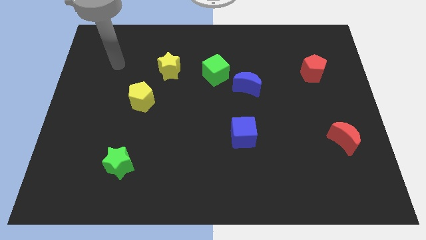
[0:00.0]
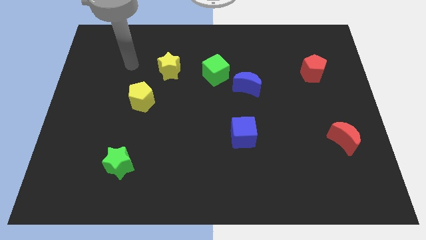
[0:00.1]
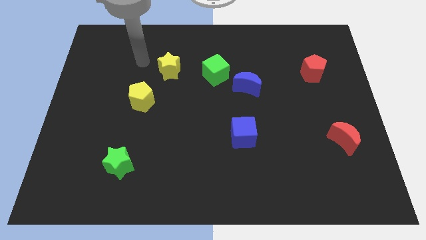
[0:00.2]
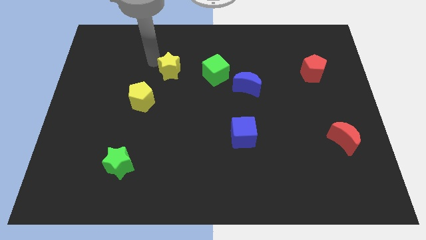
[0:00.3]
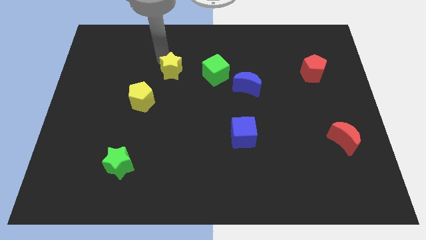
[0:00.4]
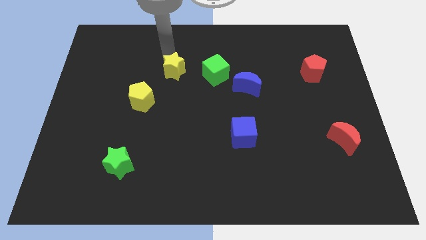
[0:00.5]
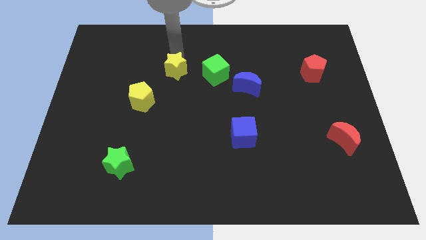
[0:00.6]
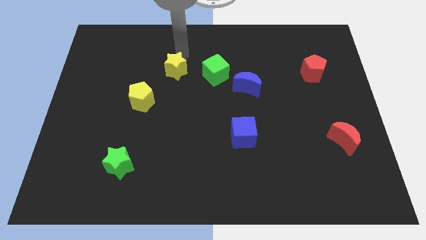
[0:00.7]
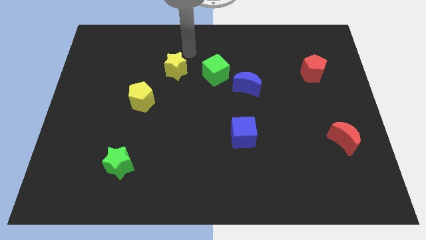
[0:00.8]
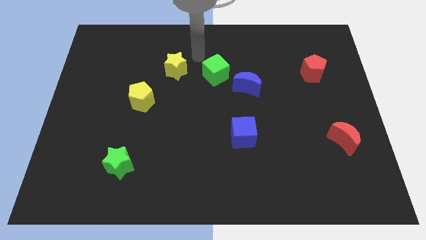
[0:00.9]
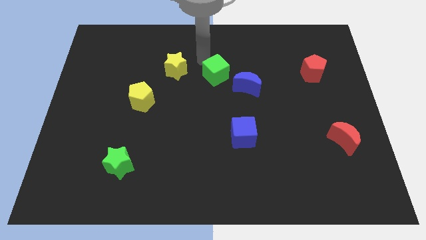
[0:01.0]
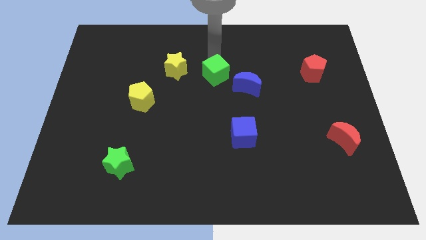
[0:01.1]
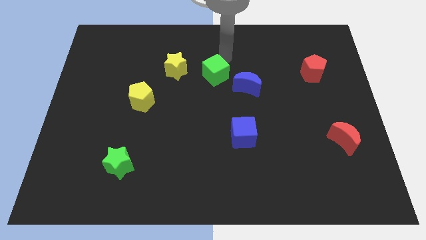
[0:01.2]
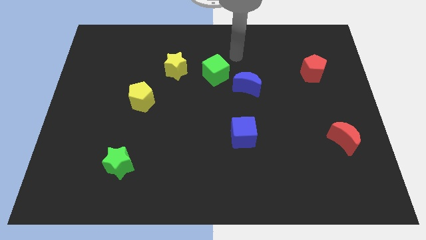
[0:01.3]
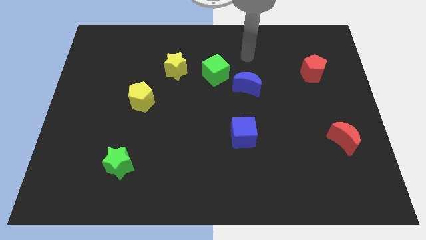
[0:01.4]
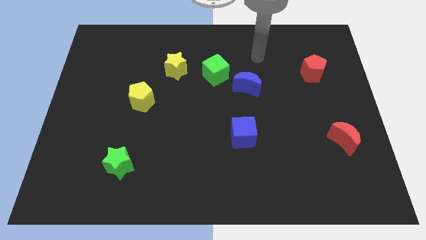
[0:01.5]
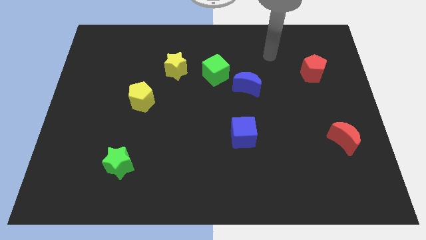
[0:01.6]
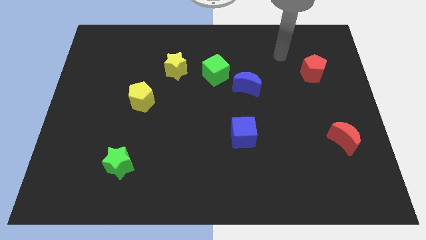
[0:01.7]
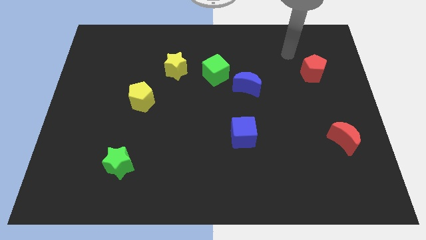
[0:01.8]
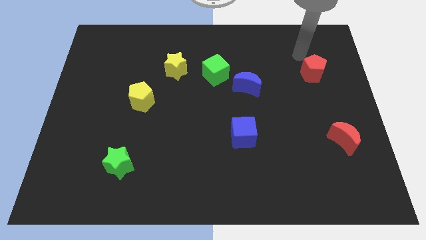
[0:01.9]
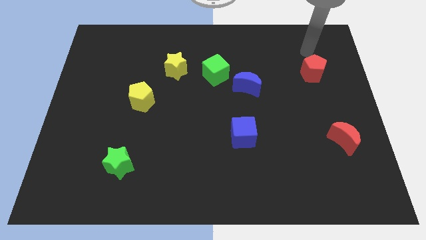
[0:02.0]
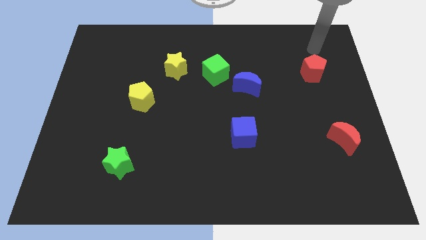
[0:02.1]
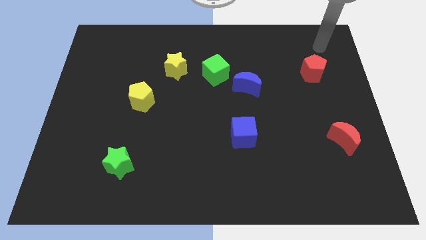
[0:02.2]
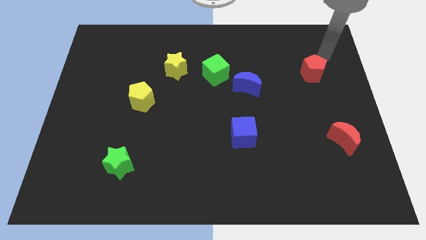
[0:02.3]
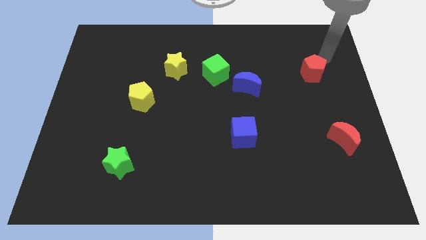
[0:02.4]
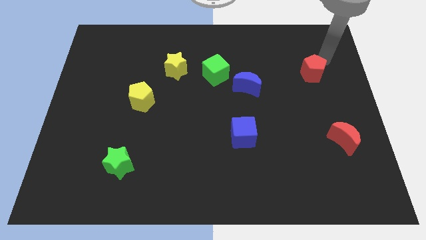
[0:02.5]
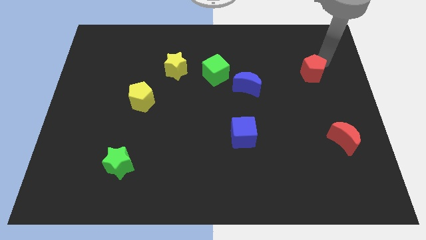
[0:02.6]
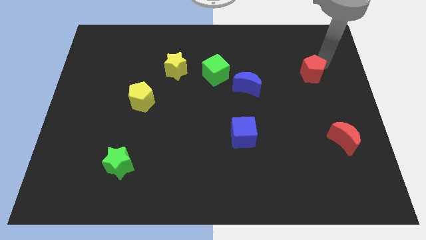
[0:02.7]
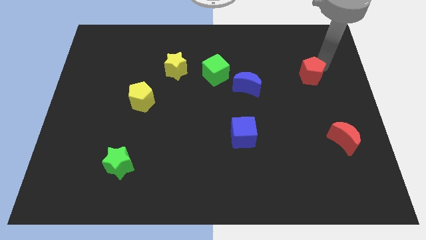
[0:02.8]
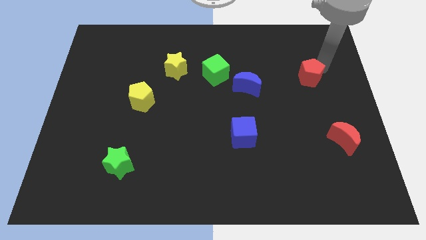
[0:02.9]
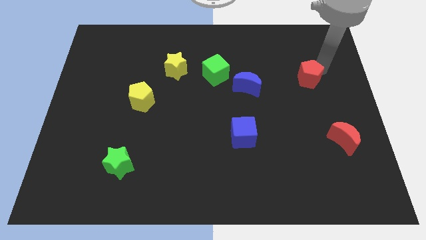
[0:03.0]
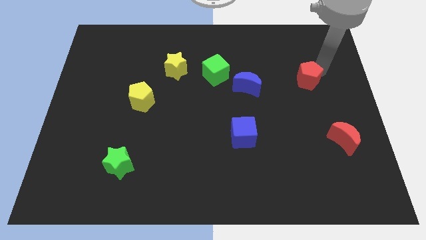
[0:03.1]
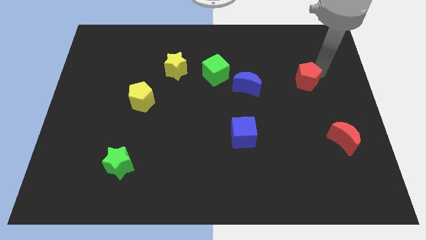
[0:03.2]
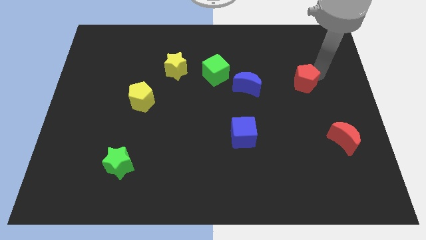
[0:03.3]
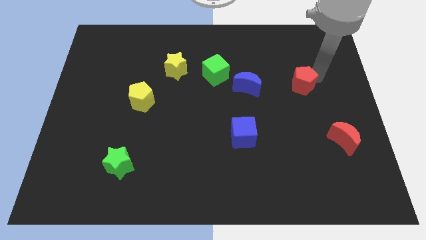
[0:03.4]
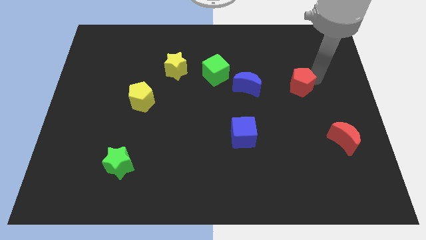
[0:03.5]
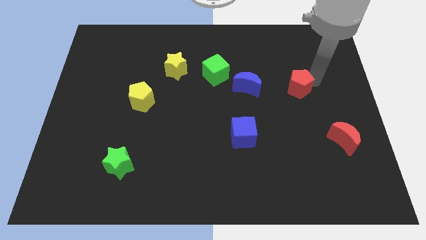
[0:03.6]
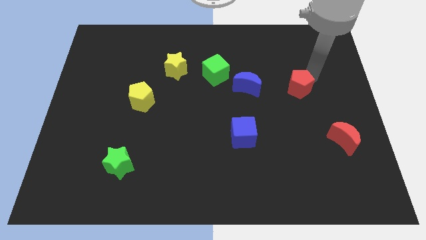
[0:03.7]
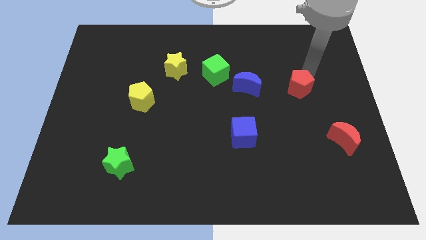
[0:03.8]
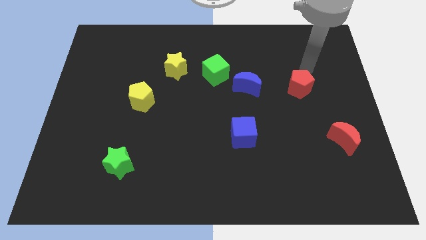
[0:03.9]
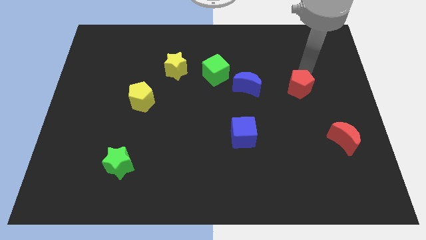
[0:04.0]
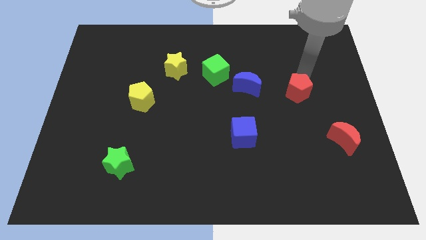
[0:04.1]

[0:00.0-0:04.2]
push the red pentagon down and left somewhat

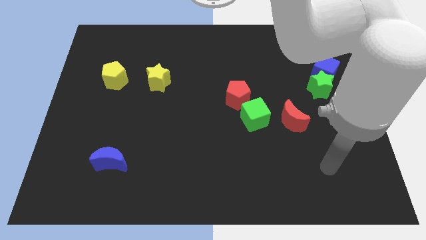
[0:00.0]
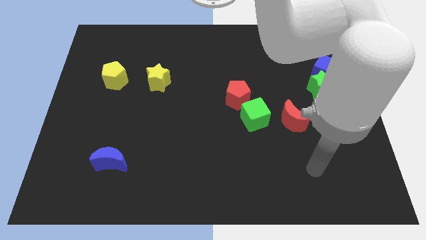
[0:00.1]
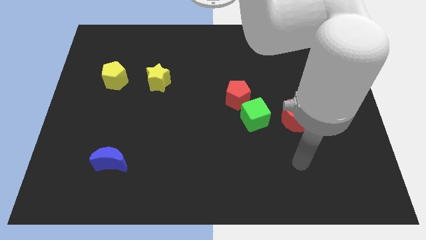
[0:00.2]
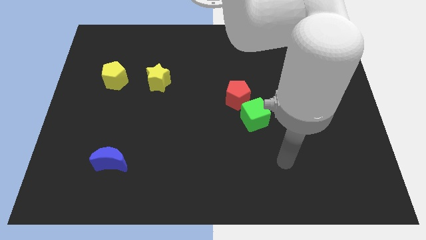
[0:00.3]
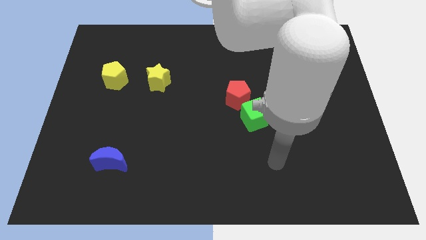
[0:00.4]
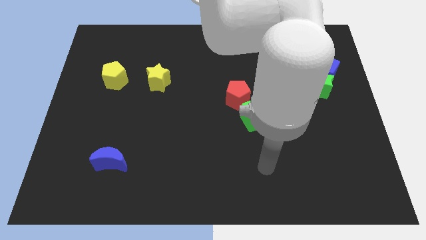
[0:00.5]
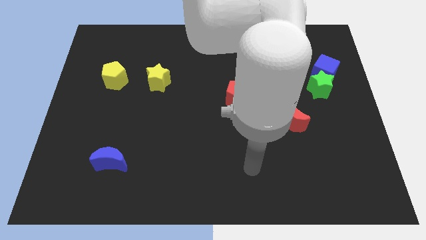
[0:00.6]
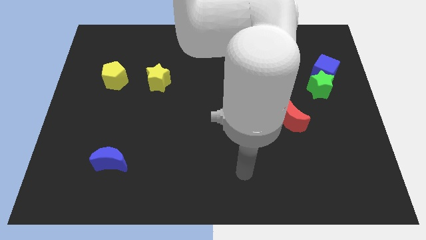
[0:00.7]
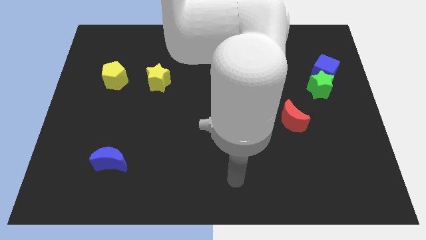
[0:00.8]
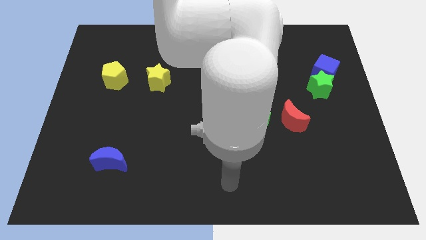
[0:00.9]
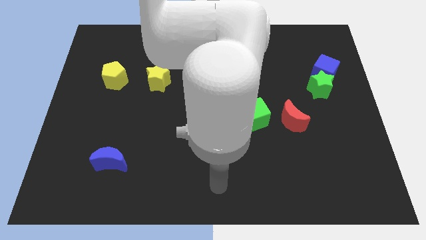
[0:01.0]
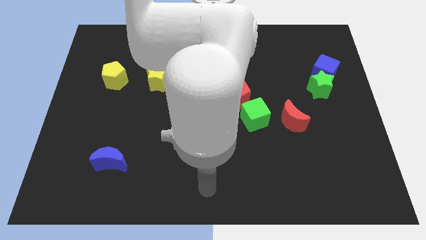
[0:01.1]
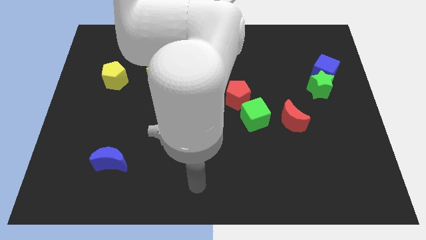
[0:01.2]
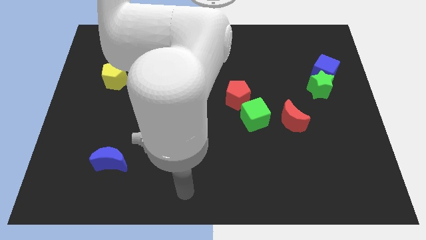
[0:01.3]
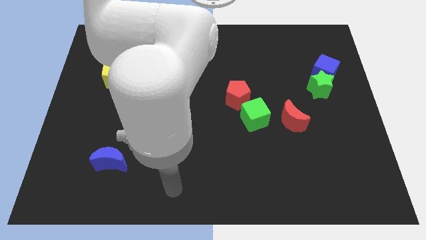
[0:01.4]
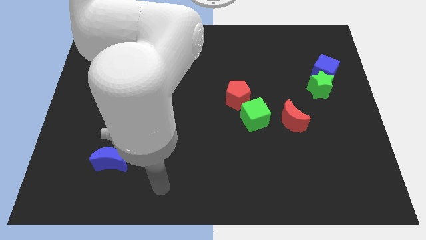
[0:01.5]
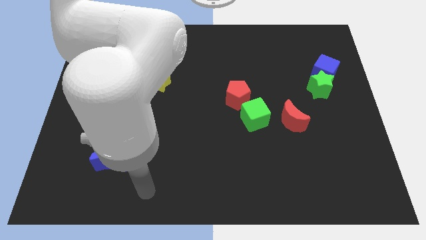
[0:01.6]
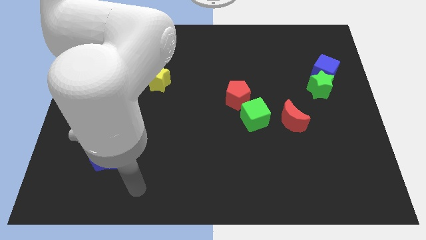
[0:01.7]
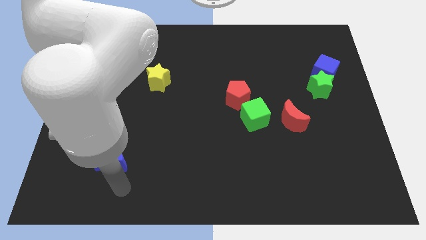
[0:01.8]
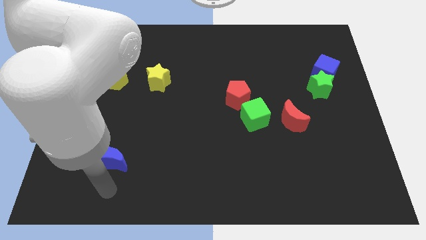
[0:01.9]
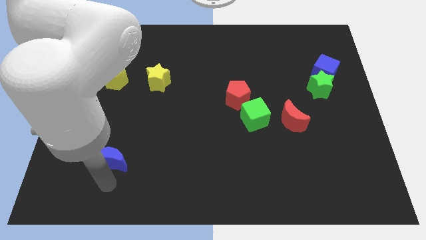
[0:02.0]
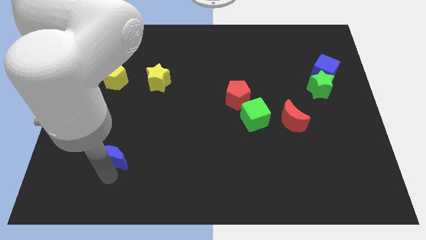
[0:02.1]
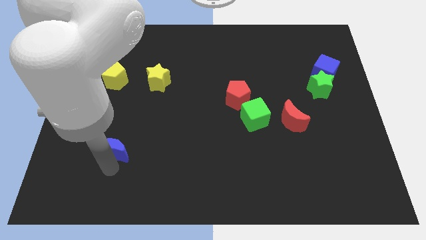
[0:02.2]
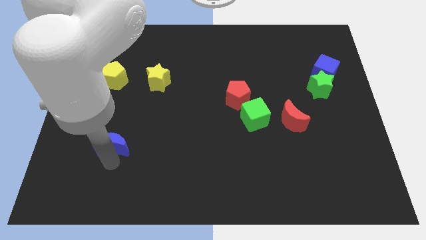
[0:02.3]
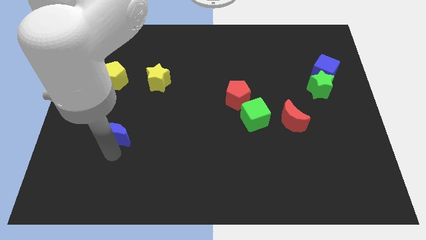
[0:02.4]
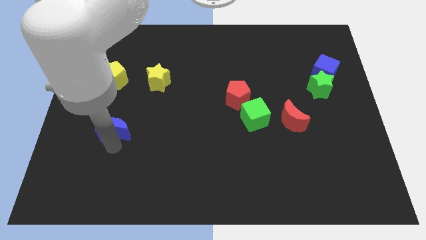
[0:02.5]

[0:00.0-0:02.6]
slide the blue moon upwards slightly

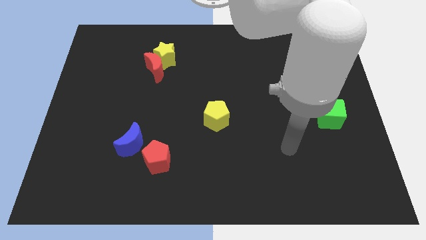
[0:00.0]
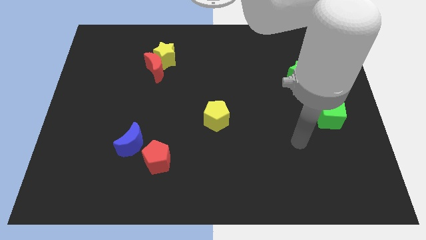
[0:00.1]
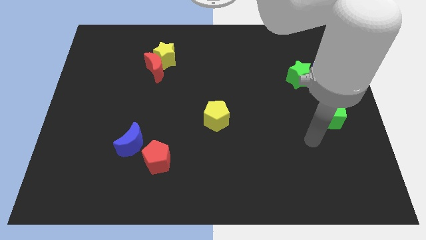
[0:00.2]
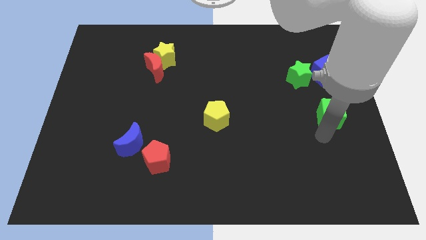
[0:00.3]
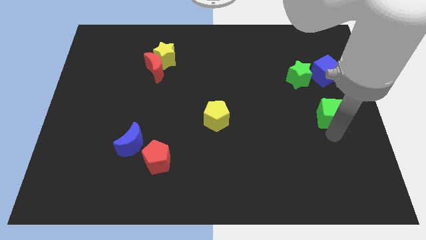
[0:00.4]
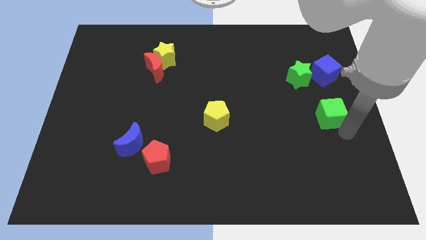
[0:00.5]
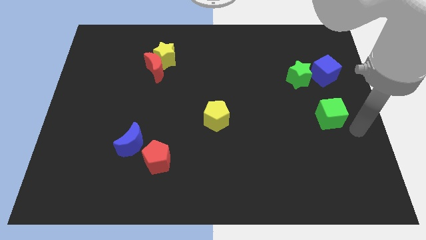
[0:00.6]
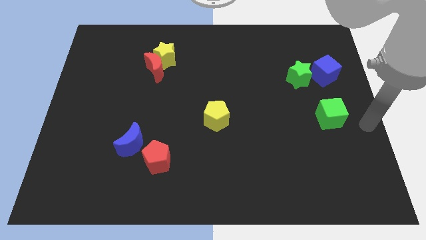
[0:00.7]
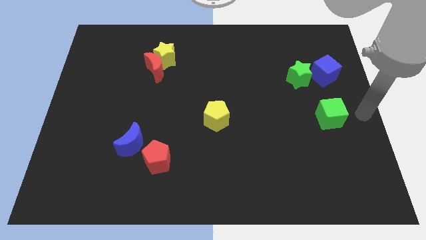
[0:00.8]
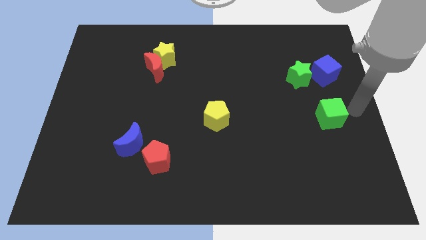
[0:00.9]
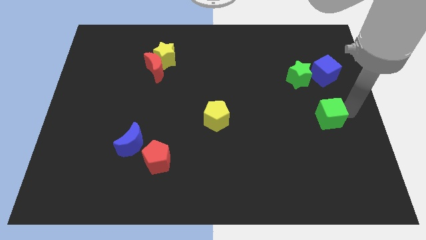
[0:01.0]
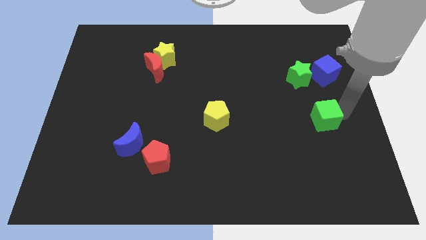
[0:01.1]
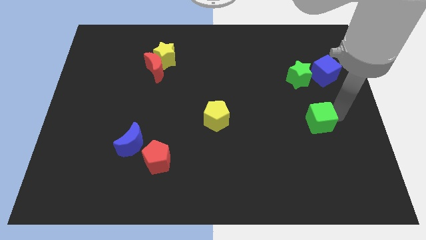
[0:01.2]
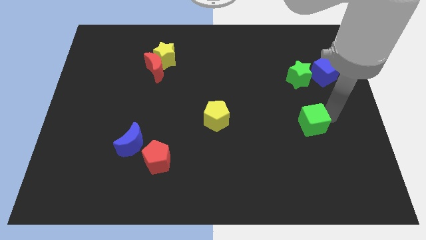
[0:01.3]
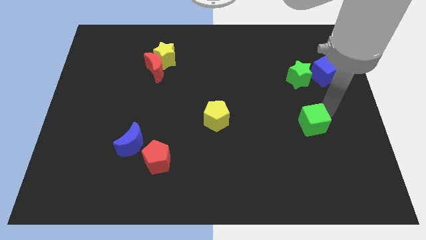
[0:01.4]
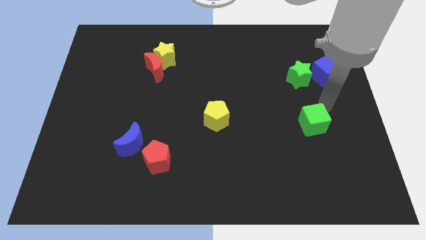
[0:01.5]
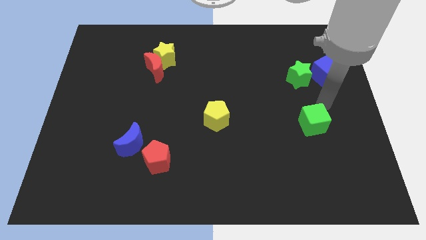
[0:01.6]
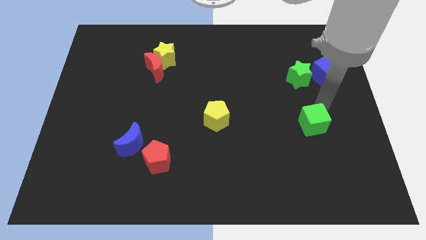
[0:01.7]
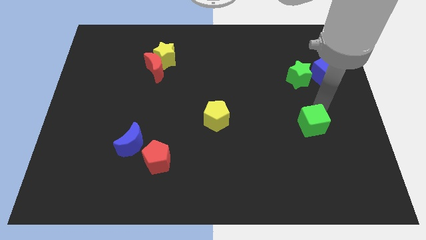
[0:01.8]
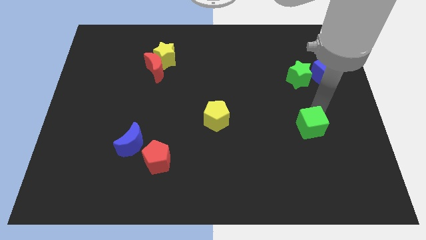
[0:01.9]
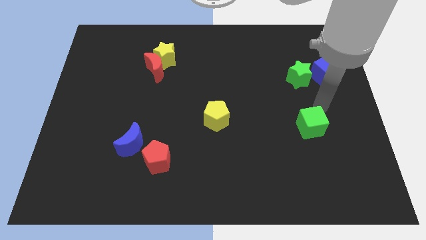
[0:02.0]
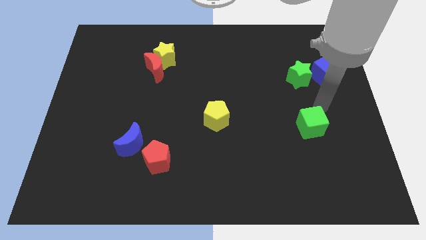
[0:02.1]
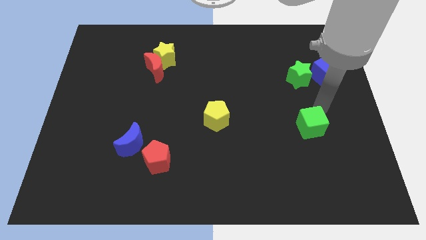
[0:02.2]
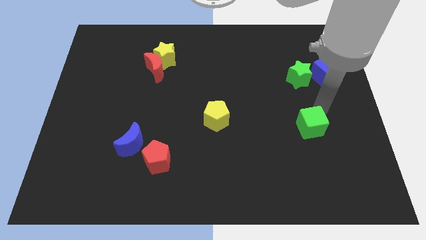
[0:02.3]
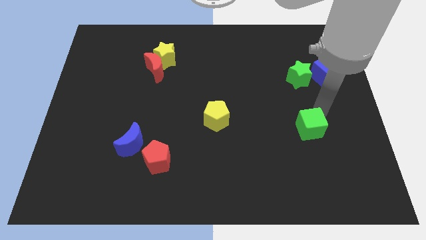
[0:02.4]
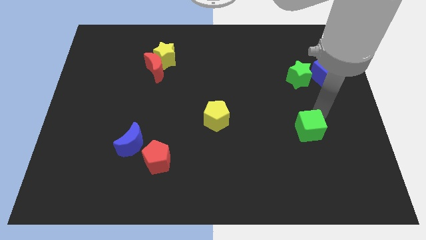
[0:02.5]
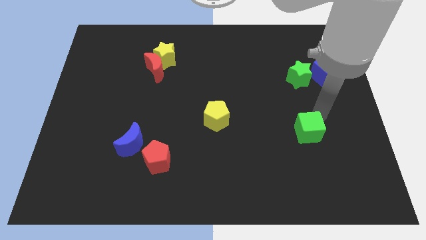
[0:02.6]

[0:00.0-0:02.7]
push the green cube a little down and to the left diagonally
